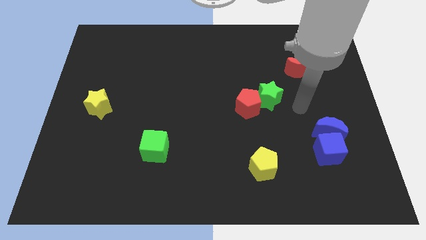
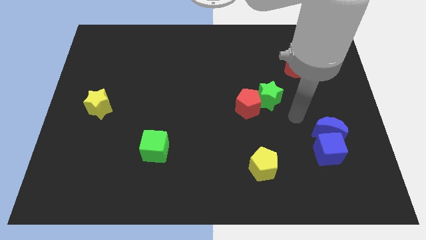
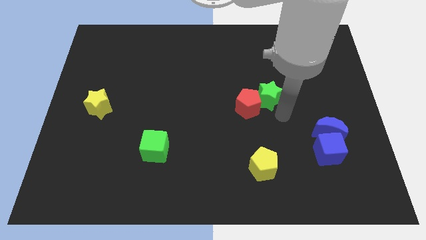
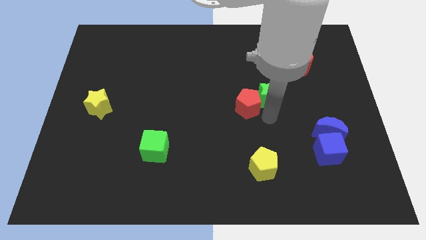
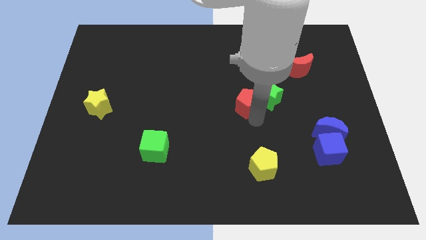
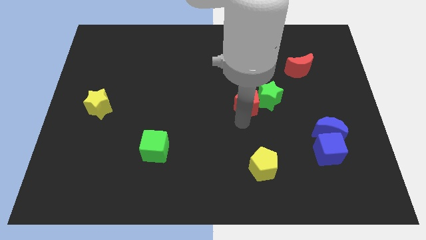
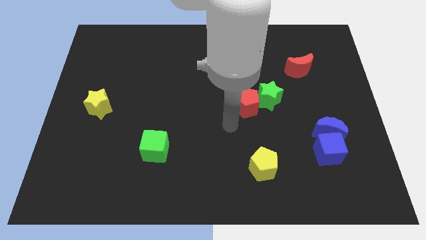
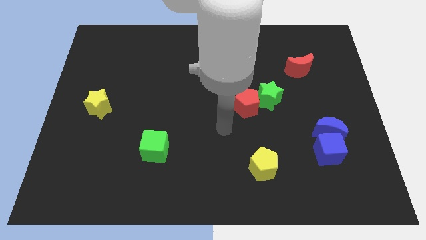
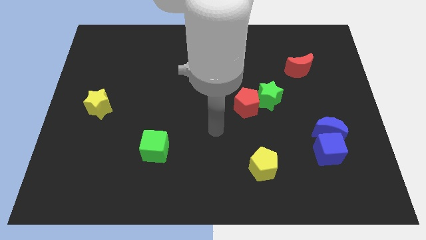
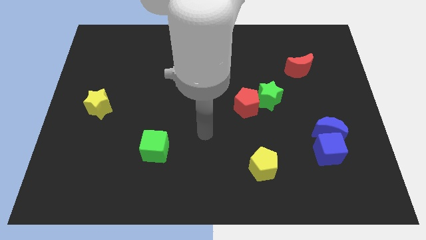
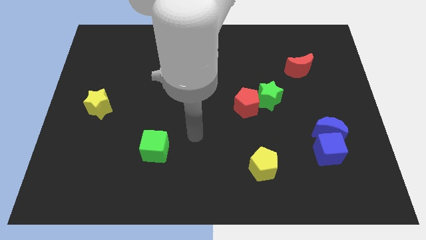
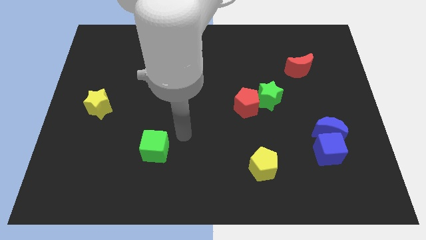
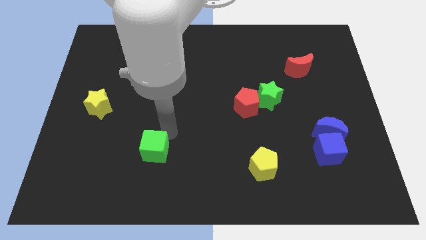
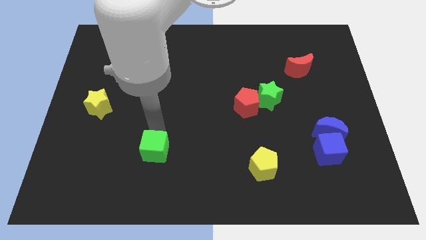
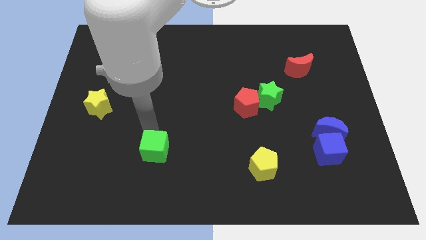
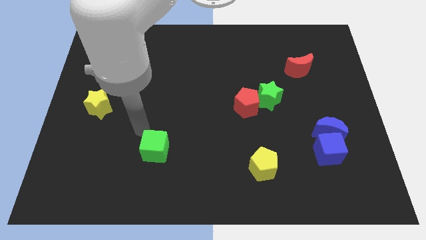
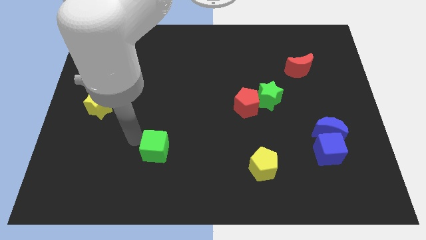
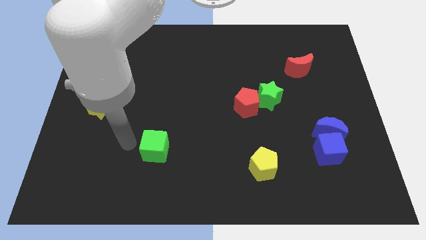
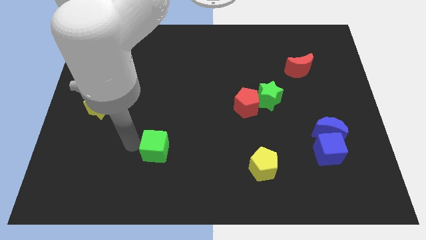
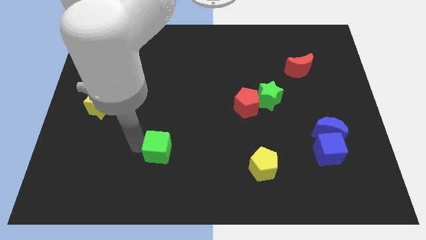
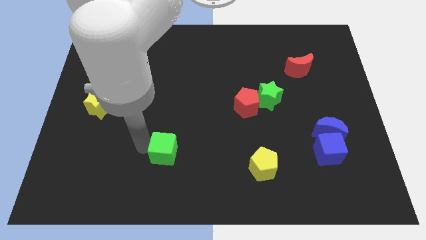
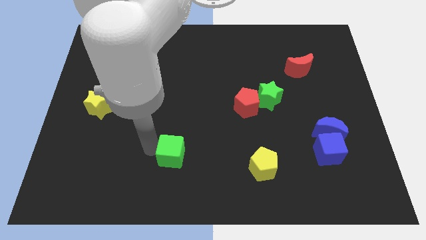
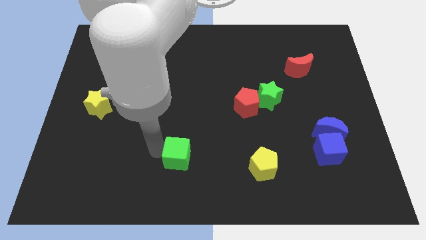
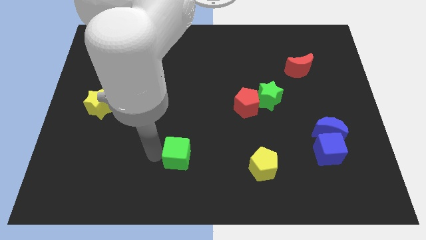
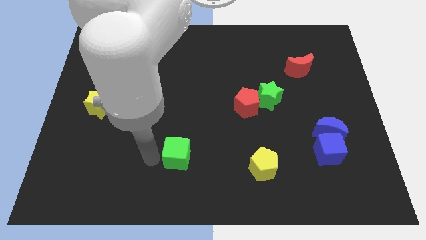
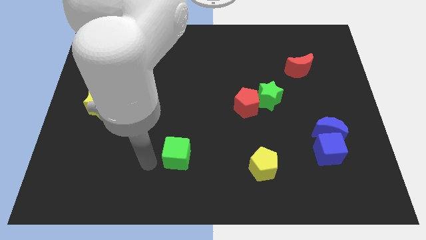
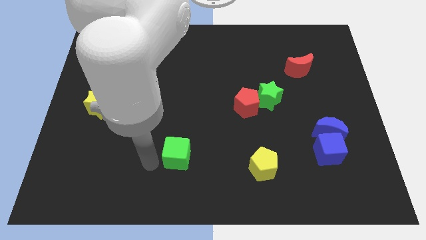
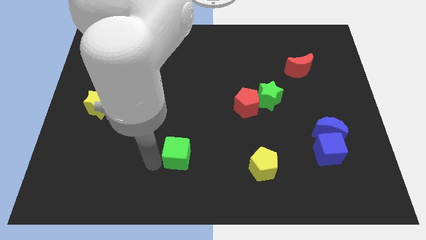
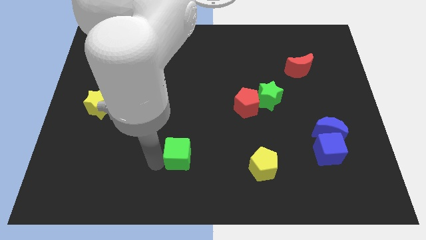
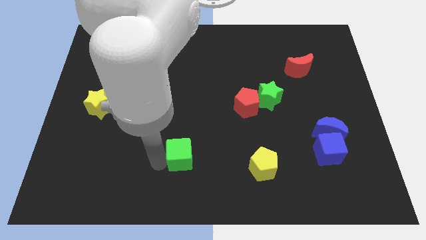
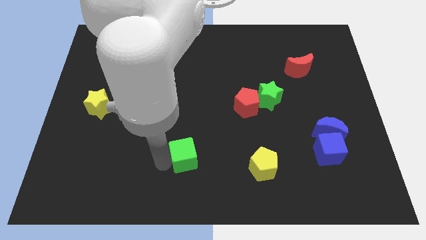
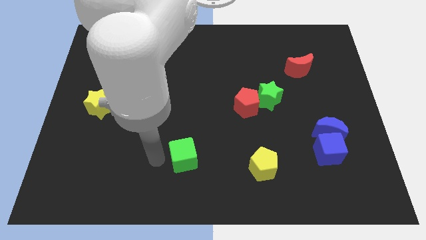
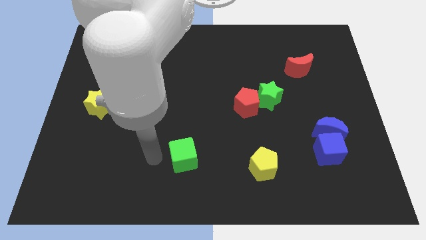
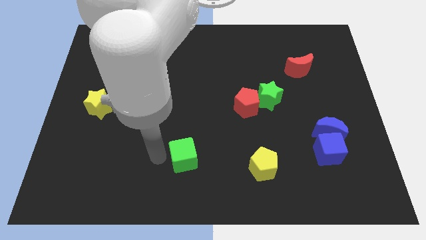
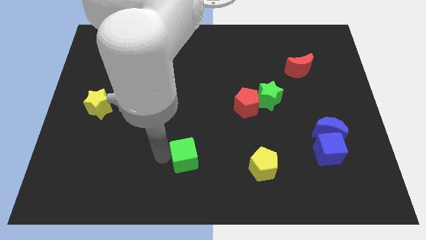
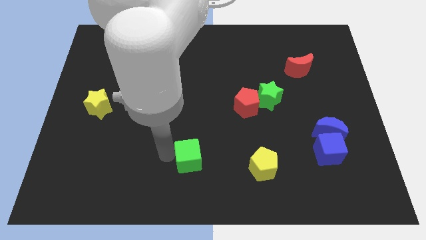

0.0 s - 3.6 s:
move the green cube to the right a little bit

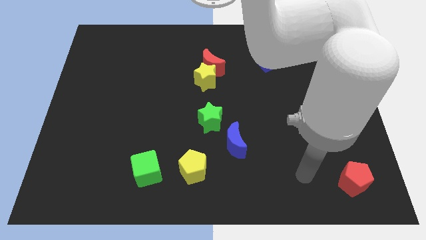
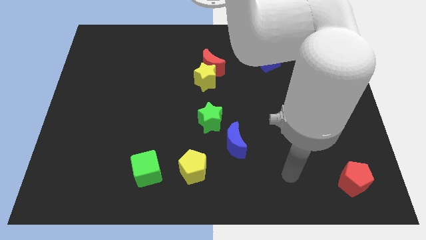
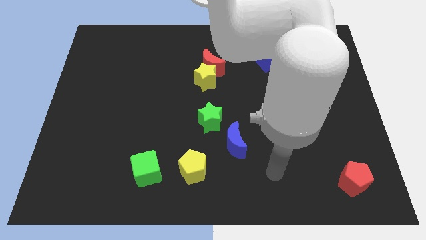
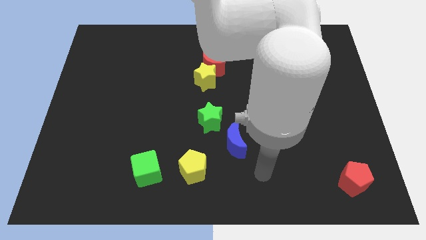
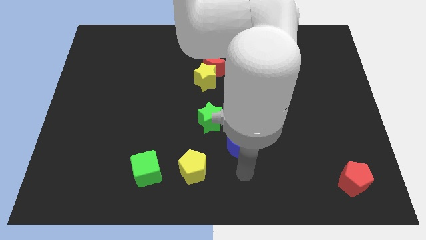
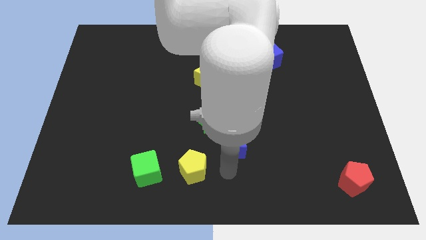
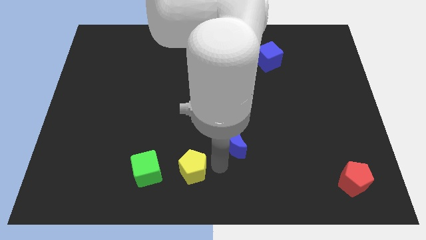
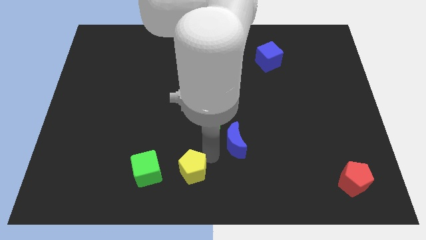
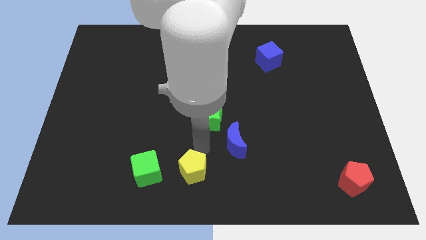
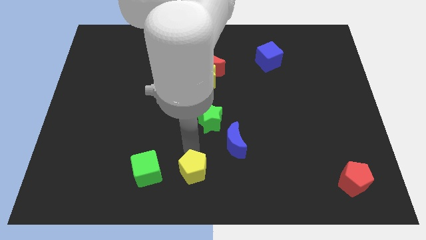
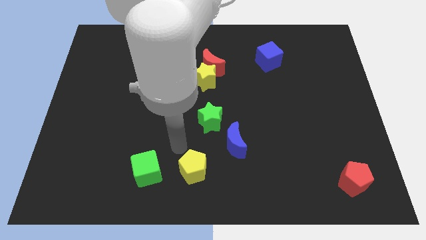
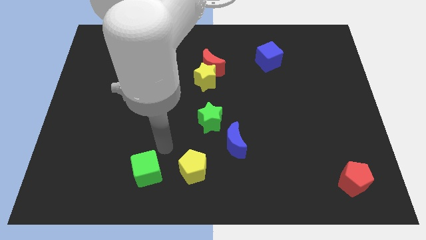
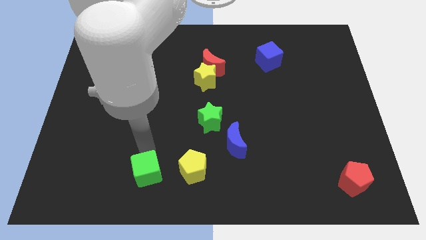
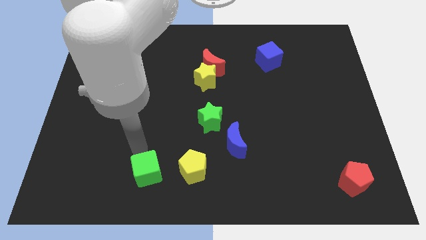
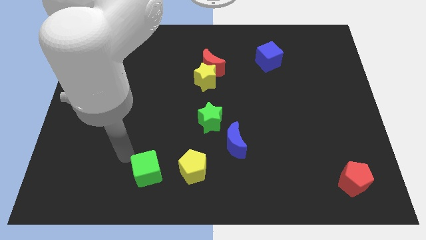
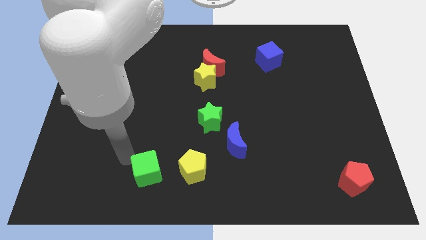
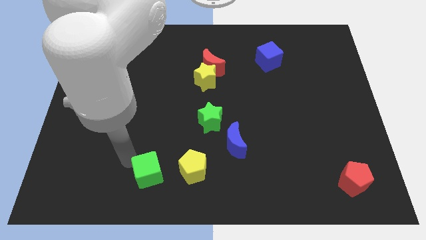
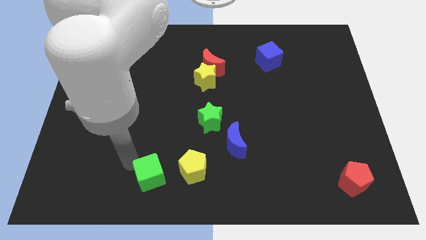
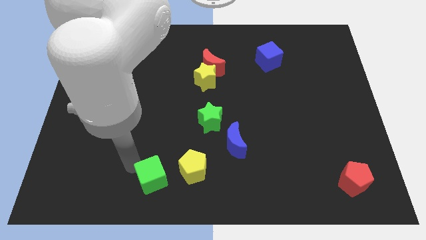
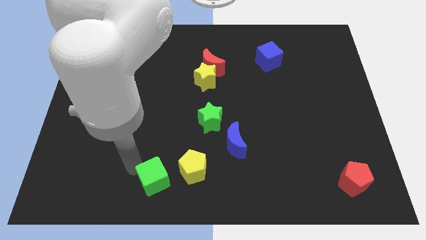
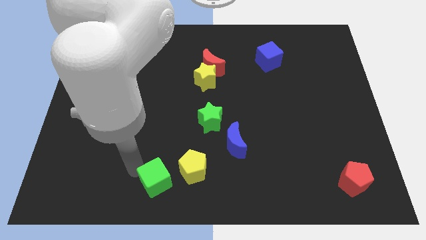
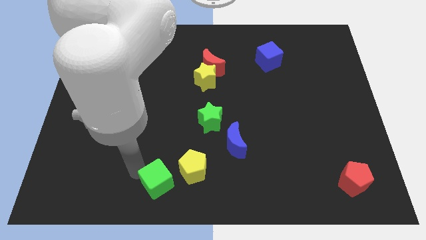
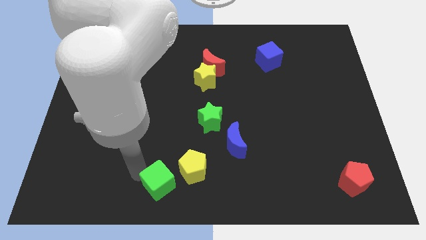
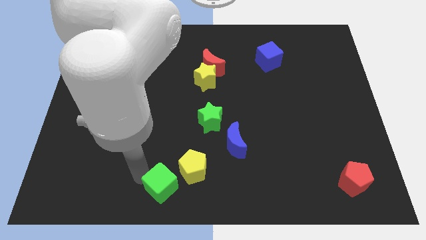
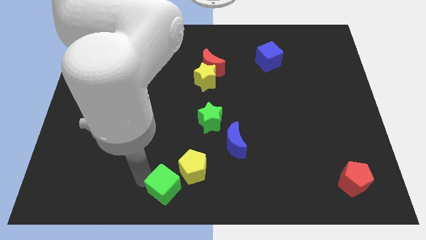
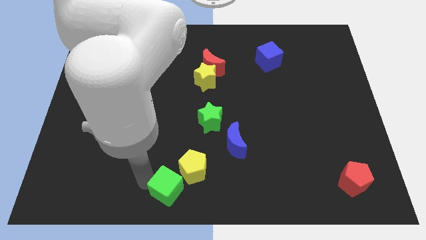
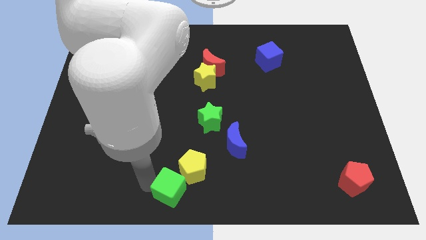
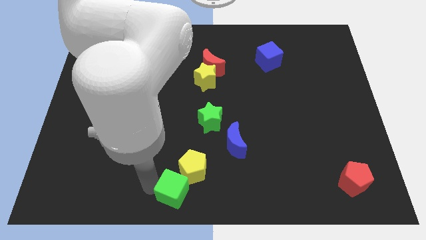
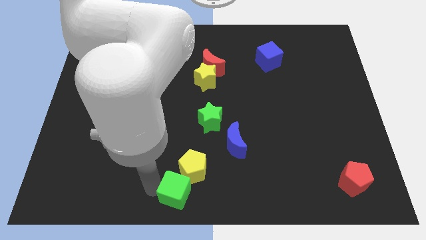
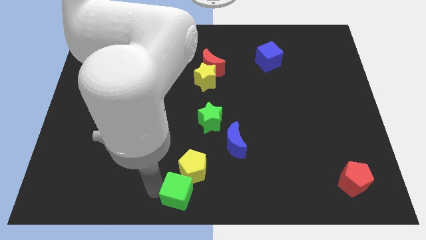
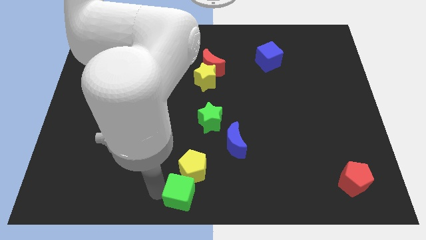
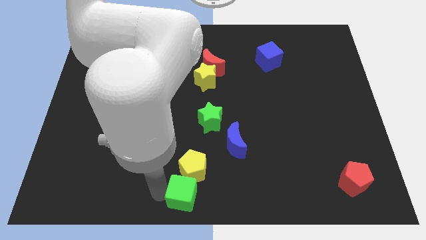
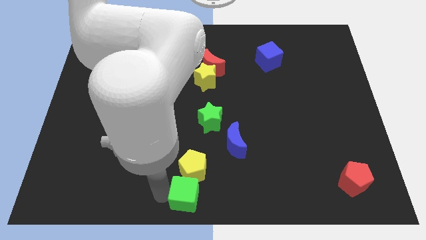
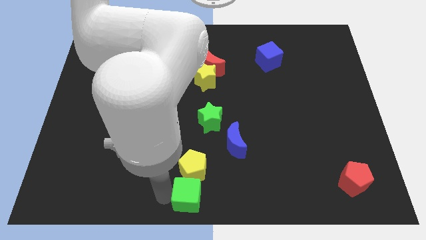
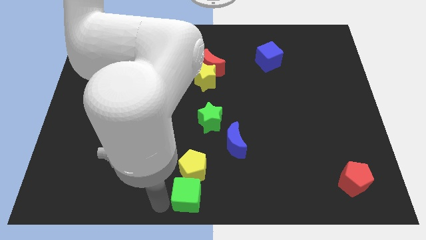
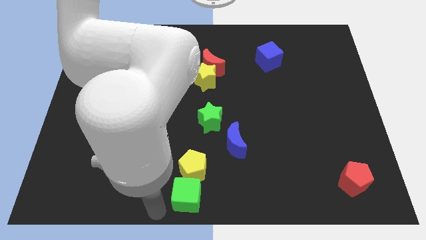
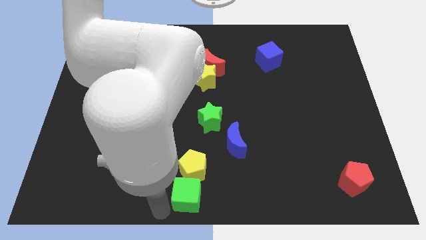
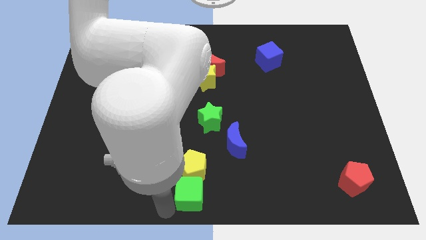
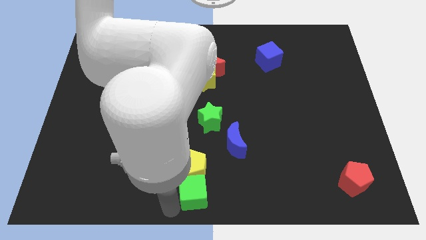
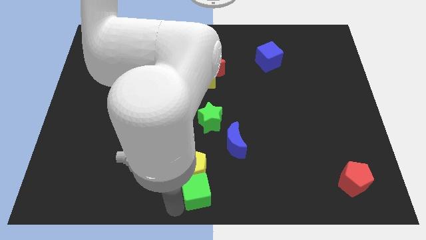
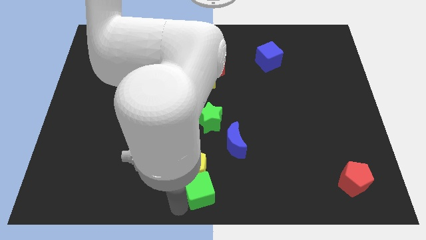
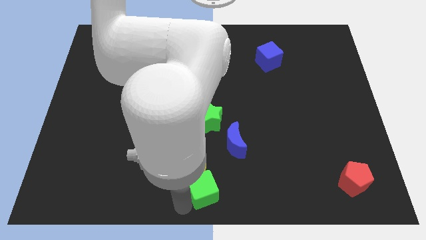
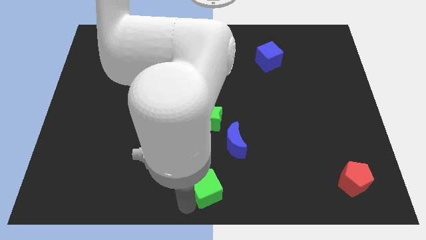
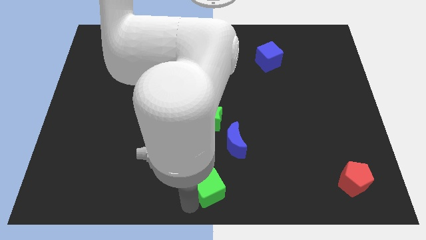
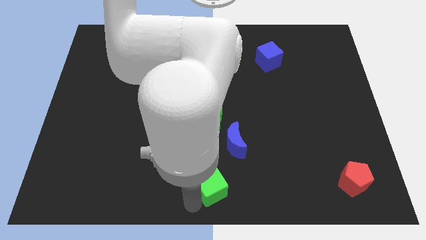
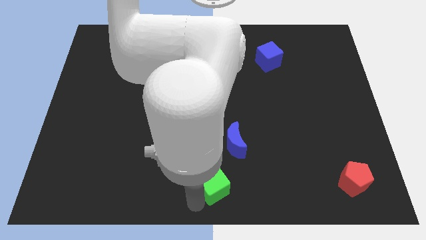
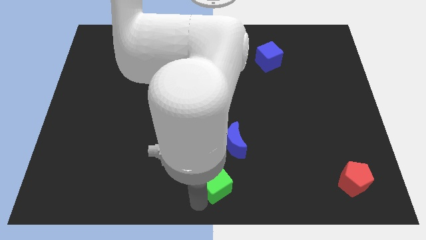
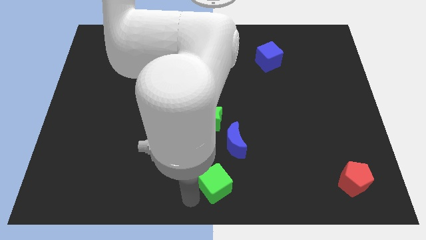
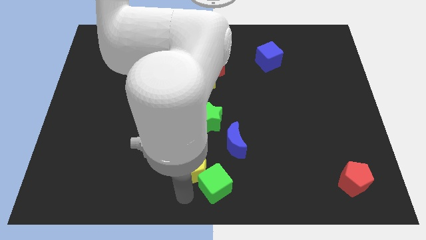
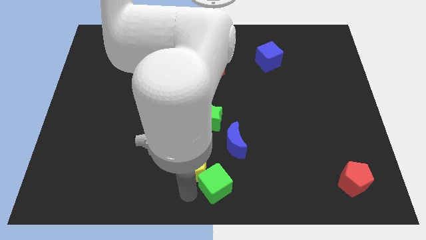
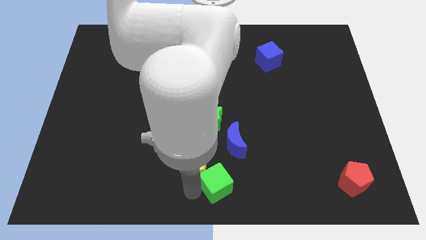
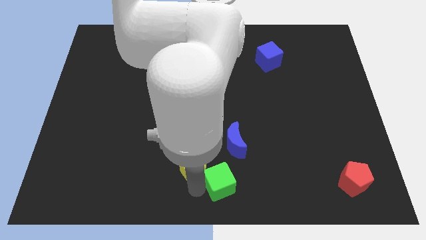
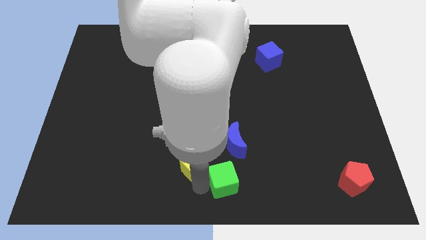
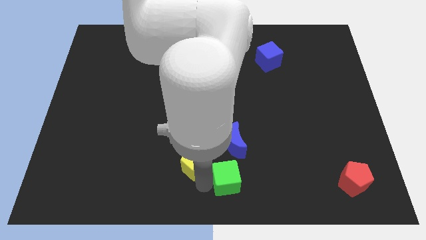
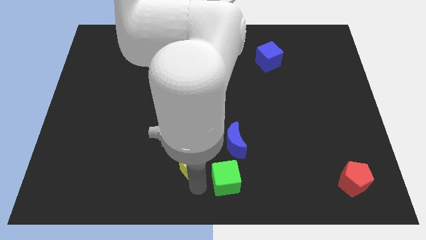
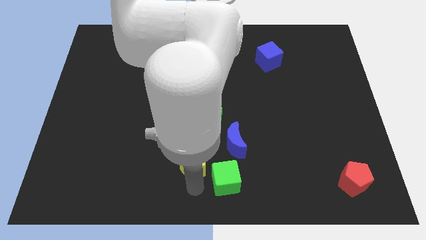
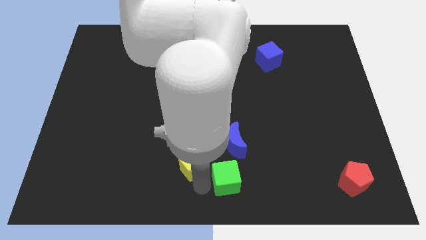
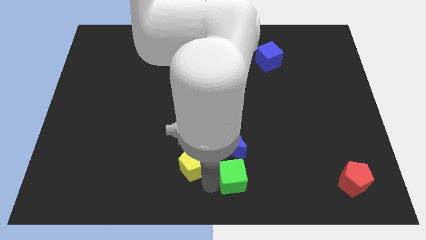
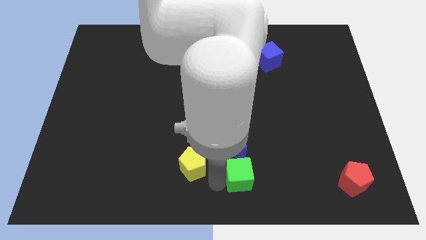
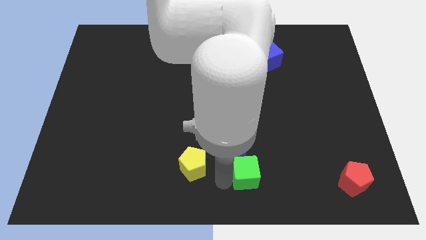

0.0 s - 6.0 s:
move the green cube to the right
